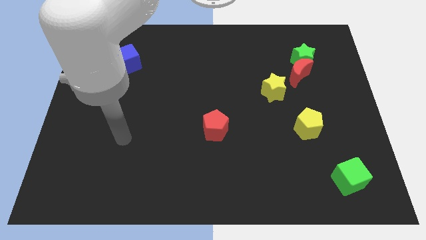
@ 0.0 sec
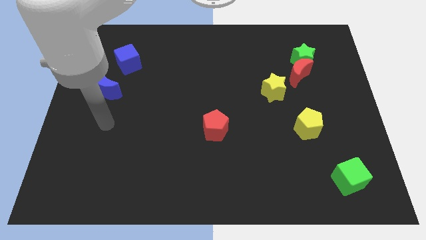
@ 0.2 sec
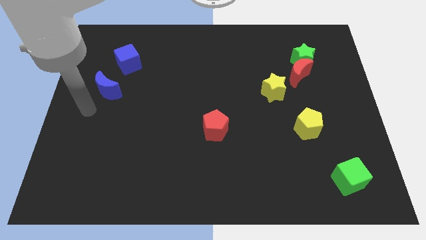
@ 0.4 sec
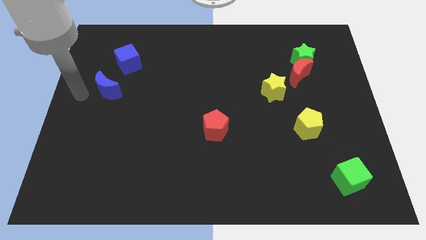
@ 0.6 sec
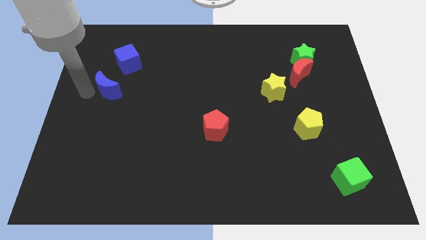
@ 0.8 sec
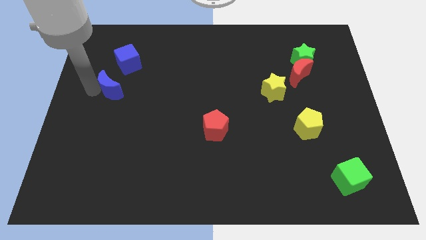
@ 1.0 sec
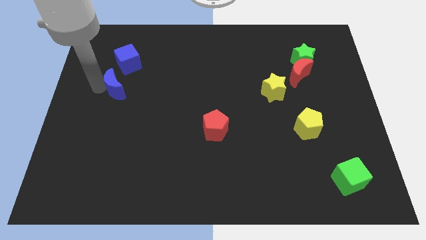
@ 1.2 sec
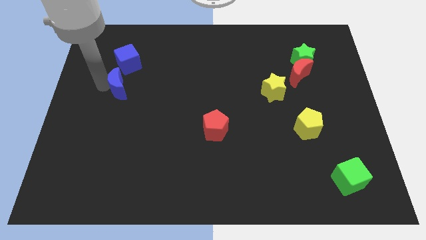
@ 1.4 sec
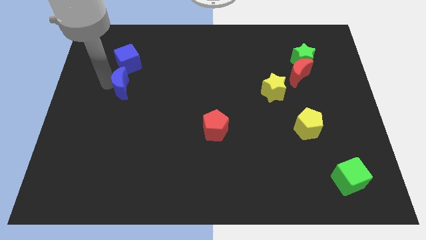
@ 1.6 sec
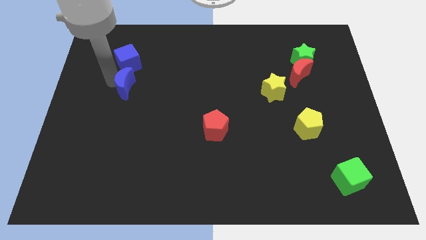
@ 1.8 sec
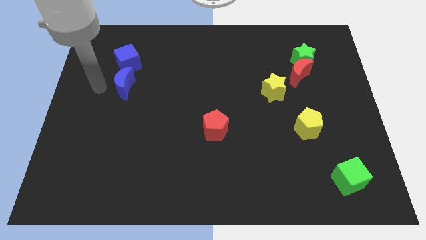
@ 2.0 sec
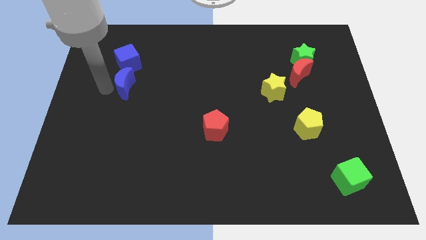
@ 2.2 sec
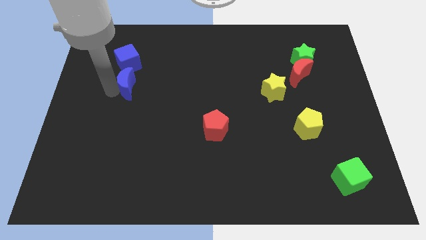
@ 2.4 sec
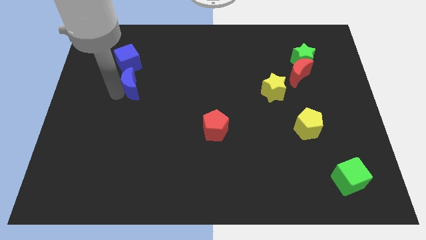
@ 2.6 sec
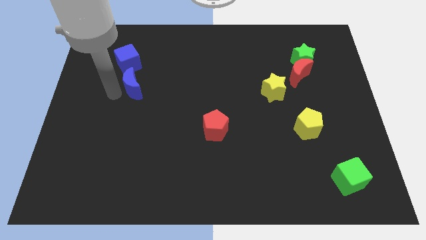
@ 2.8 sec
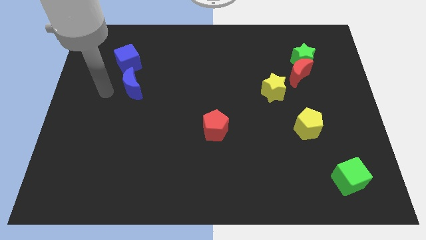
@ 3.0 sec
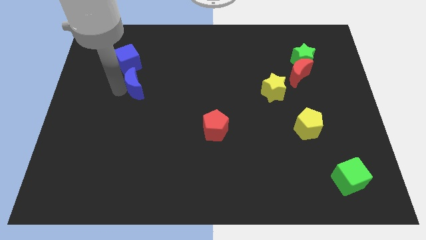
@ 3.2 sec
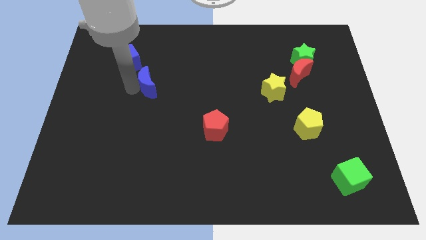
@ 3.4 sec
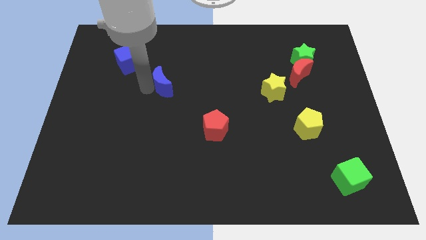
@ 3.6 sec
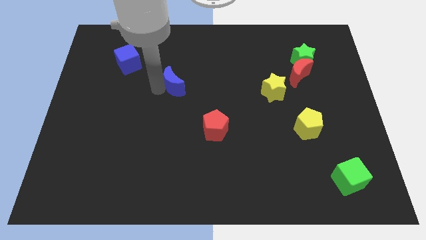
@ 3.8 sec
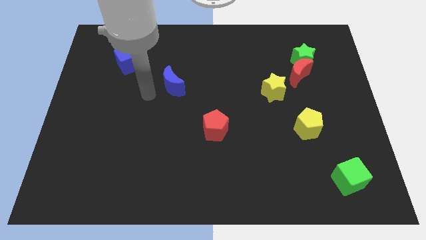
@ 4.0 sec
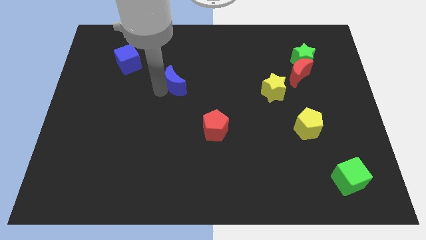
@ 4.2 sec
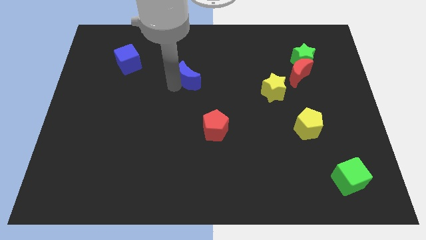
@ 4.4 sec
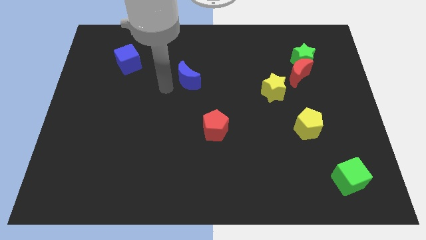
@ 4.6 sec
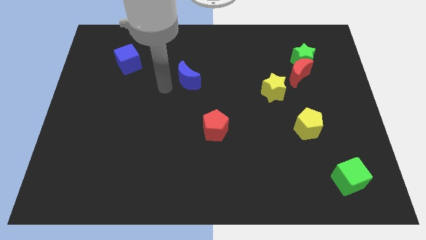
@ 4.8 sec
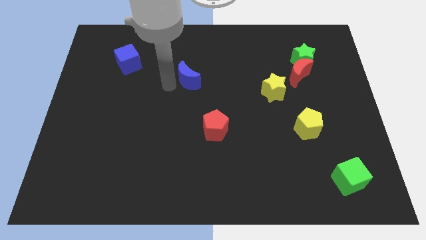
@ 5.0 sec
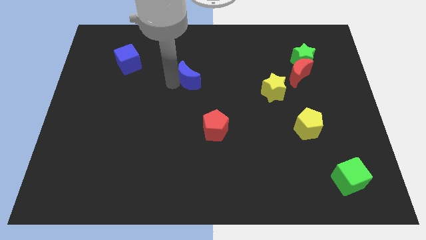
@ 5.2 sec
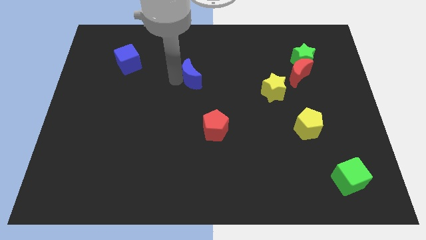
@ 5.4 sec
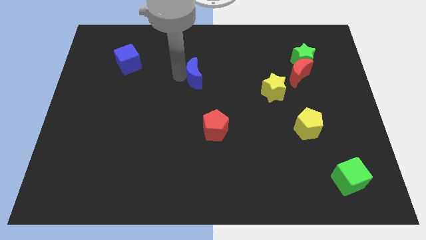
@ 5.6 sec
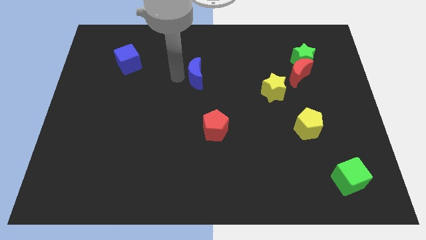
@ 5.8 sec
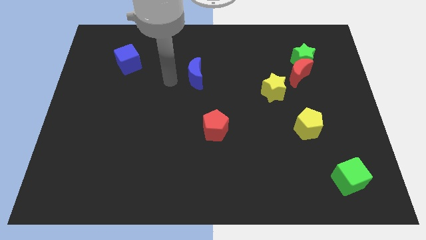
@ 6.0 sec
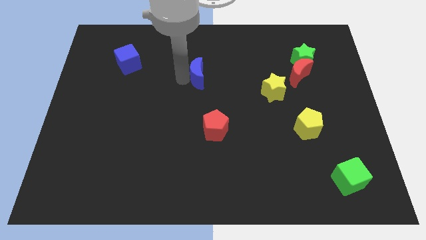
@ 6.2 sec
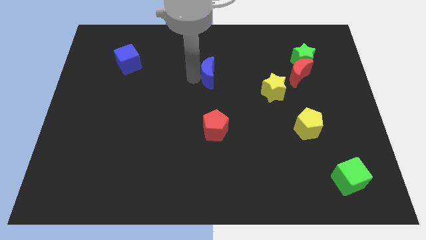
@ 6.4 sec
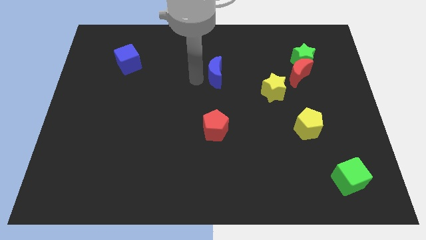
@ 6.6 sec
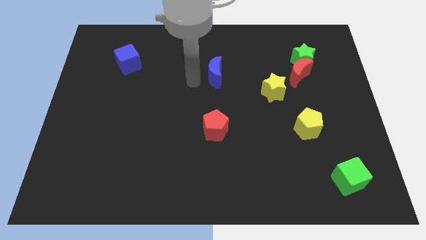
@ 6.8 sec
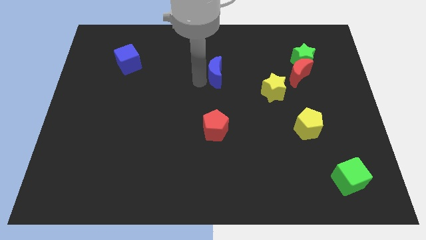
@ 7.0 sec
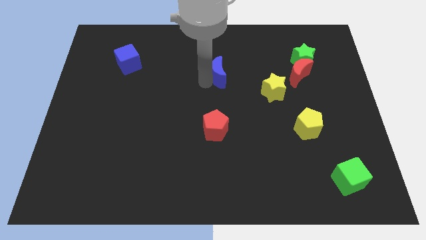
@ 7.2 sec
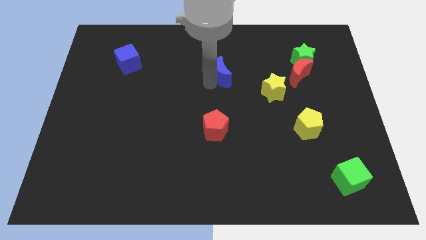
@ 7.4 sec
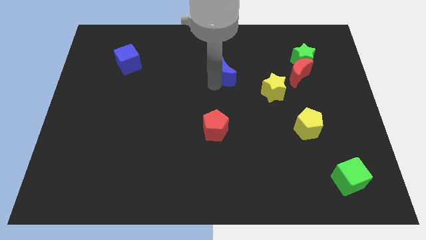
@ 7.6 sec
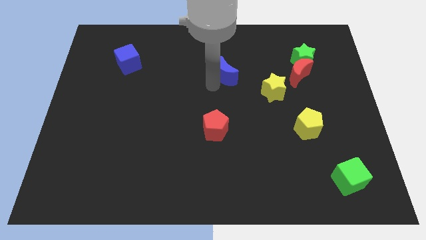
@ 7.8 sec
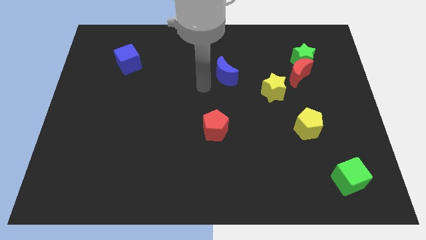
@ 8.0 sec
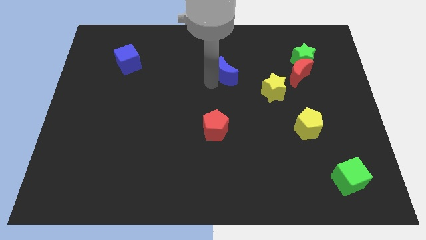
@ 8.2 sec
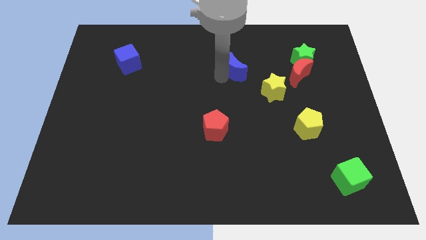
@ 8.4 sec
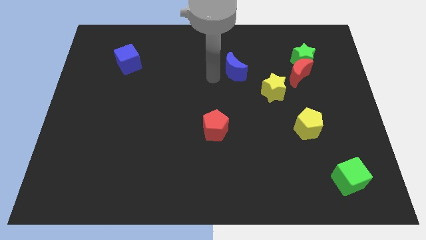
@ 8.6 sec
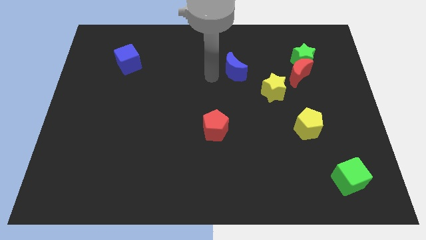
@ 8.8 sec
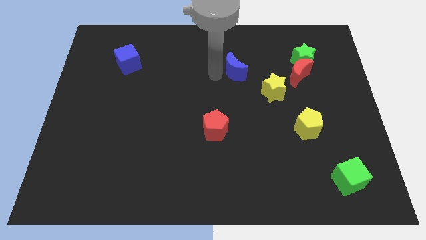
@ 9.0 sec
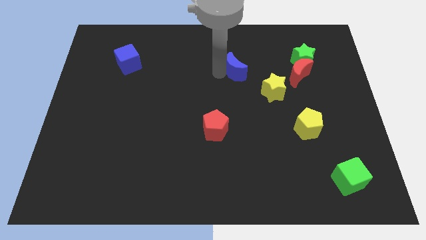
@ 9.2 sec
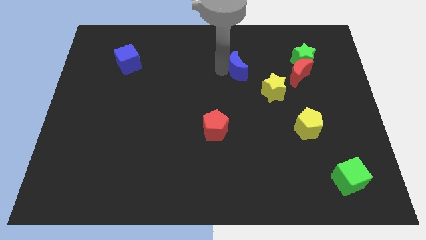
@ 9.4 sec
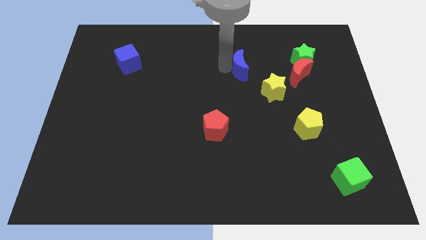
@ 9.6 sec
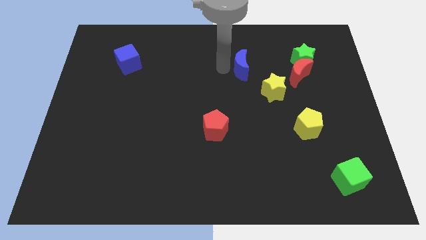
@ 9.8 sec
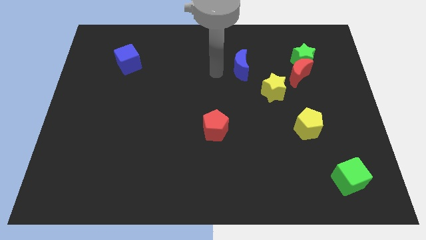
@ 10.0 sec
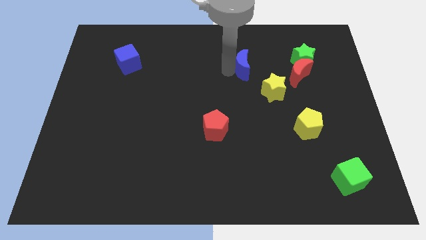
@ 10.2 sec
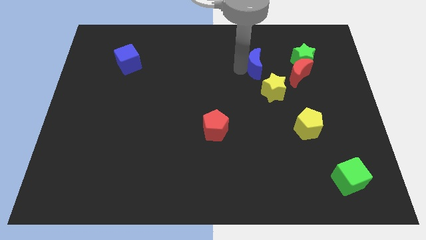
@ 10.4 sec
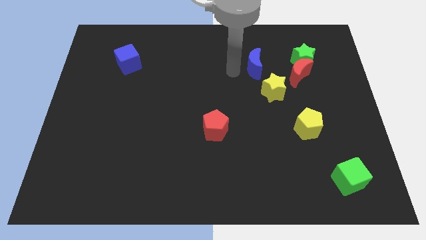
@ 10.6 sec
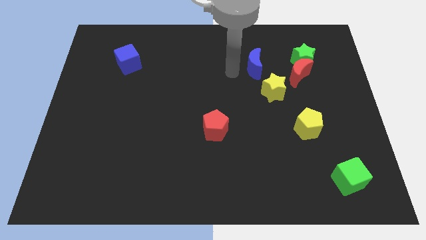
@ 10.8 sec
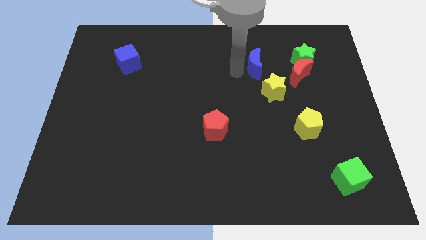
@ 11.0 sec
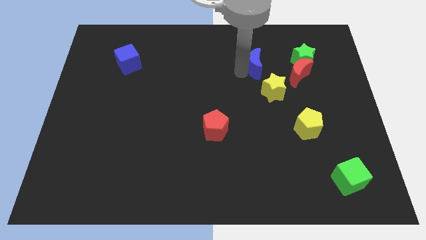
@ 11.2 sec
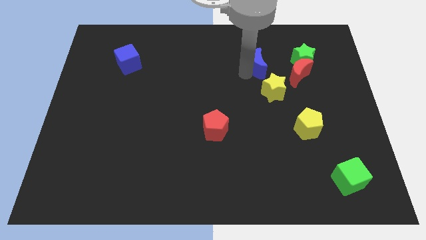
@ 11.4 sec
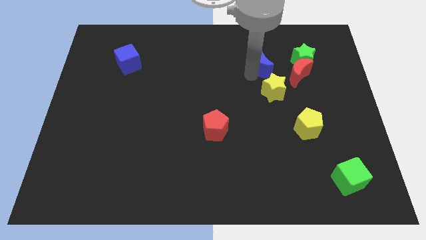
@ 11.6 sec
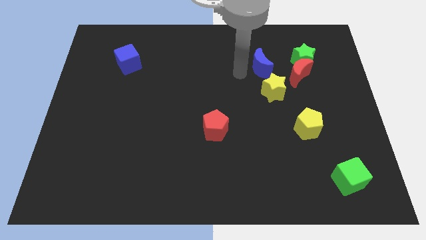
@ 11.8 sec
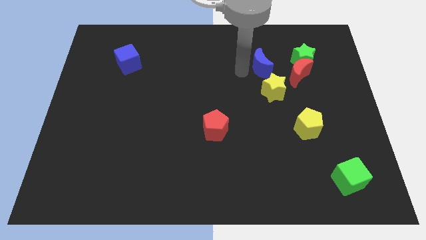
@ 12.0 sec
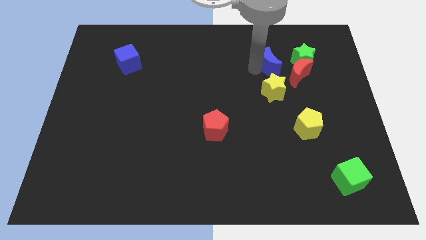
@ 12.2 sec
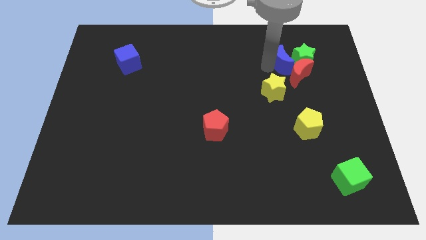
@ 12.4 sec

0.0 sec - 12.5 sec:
move the blue moon towards the green star
